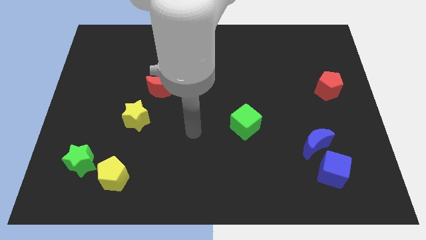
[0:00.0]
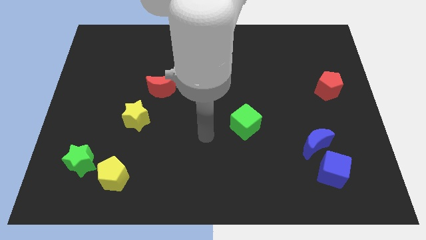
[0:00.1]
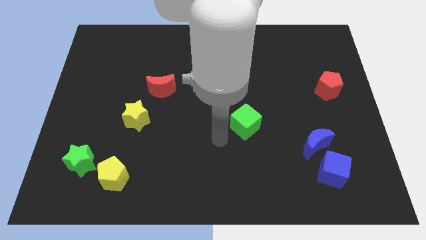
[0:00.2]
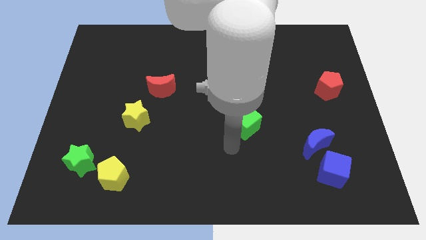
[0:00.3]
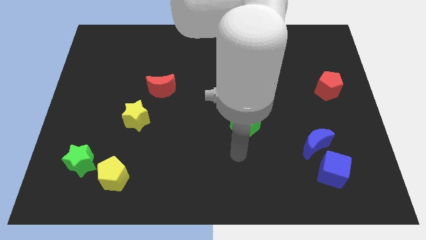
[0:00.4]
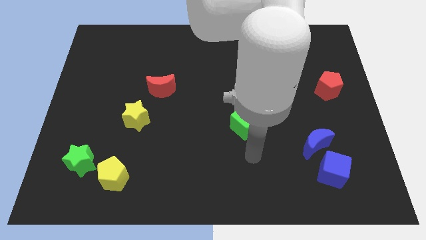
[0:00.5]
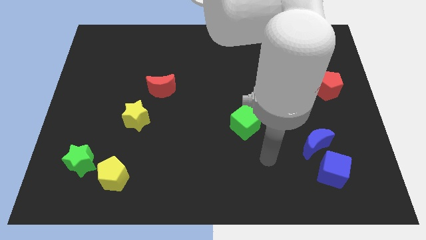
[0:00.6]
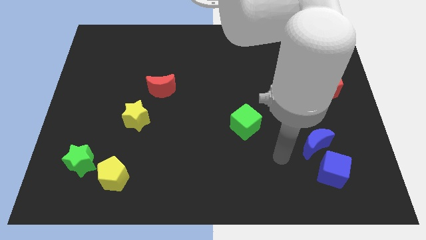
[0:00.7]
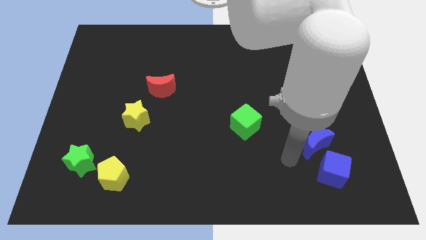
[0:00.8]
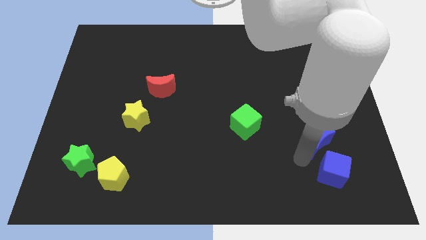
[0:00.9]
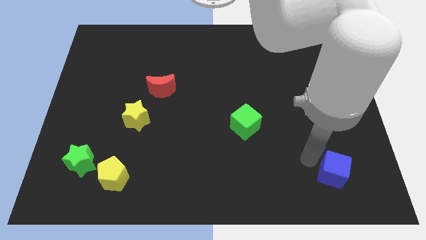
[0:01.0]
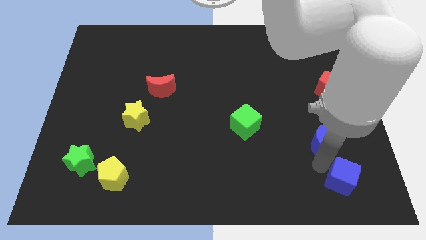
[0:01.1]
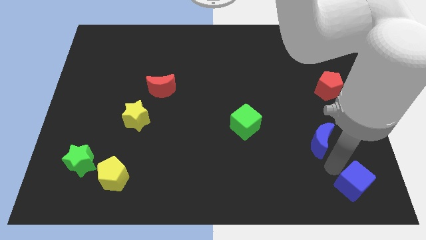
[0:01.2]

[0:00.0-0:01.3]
move the blue moon away from the blue cube

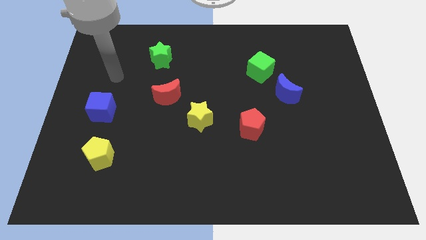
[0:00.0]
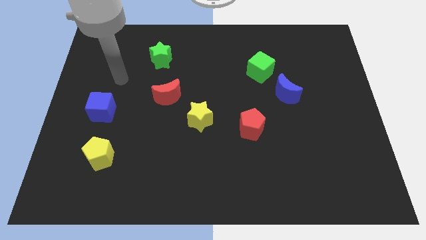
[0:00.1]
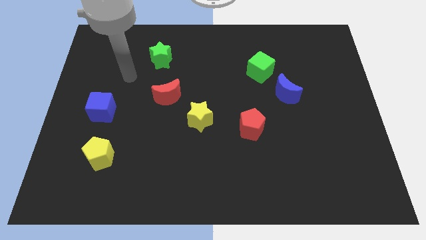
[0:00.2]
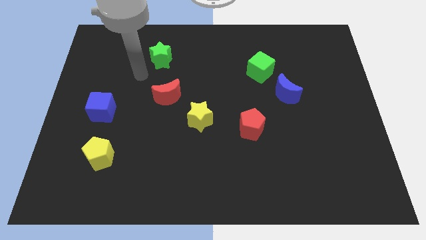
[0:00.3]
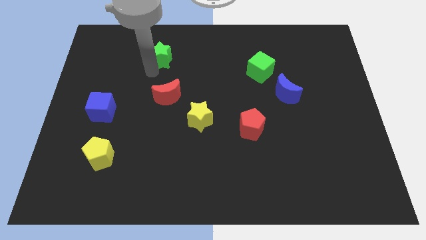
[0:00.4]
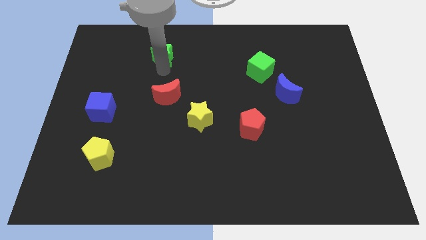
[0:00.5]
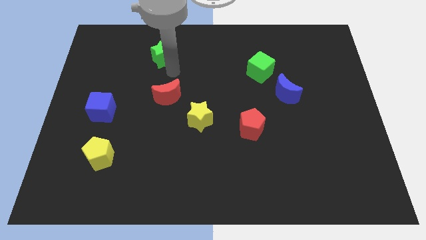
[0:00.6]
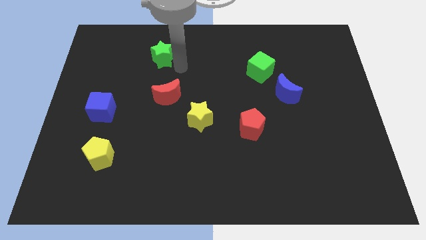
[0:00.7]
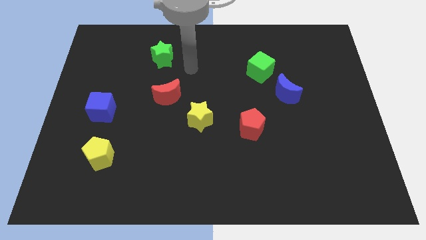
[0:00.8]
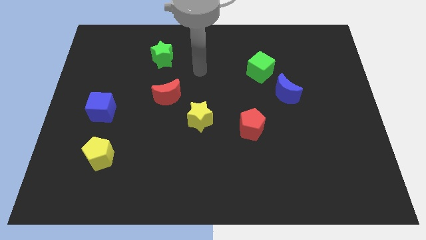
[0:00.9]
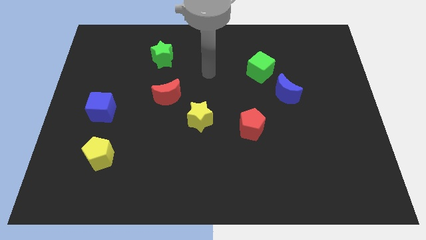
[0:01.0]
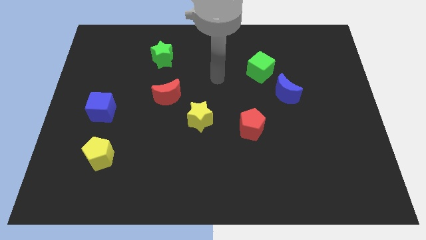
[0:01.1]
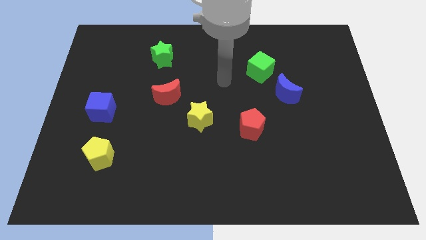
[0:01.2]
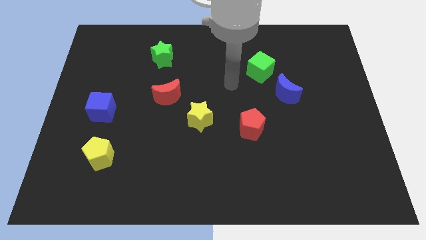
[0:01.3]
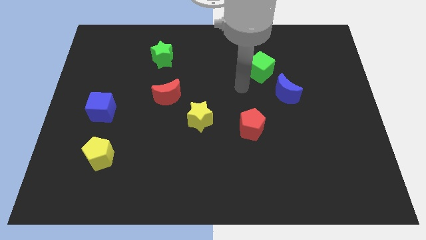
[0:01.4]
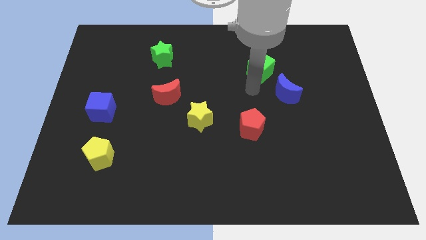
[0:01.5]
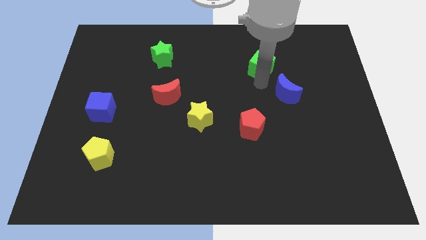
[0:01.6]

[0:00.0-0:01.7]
pull the blue moon apart from the green cube

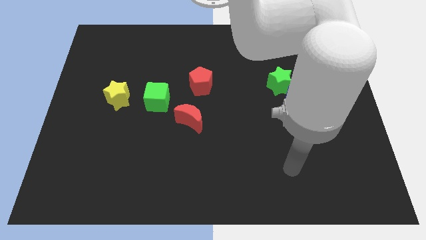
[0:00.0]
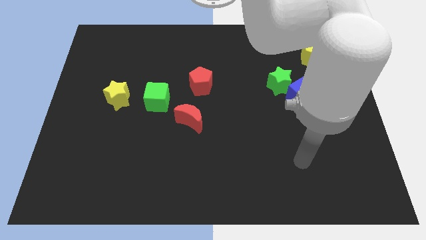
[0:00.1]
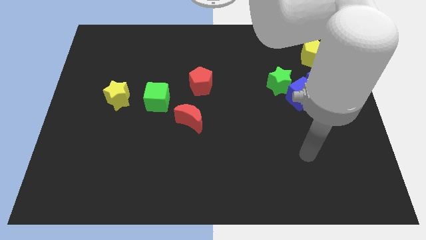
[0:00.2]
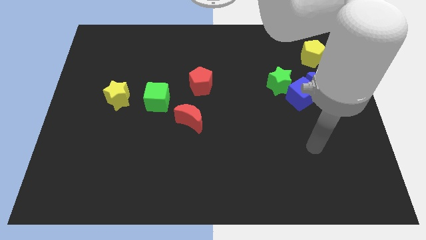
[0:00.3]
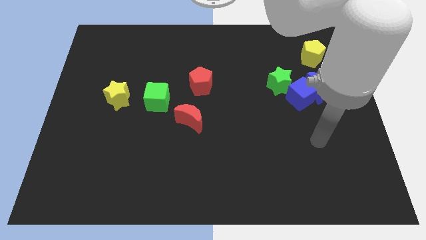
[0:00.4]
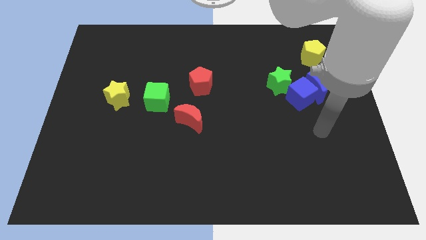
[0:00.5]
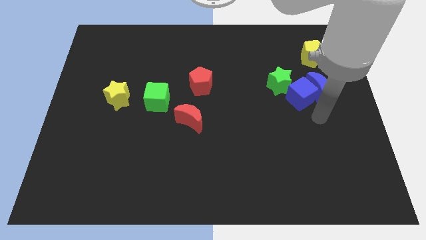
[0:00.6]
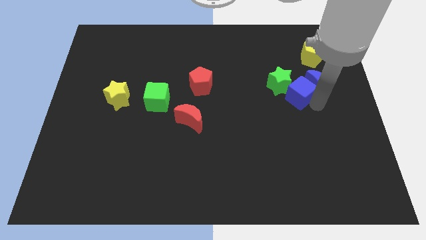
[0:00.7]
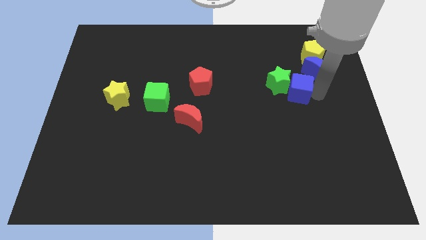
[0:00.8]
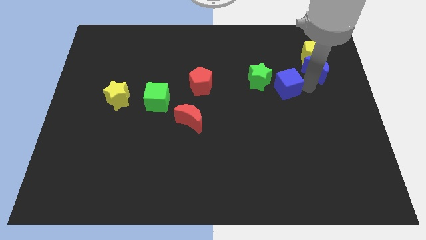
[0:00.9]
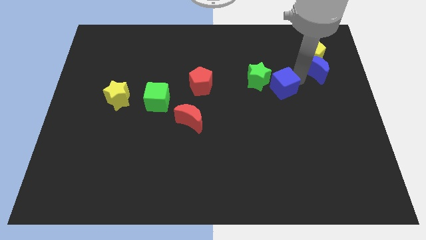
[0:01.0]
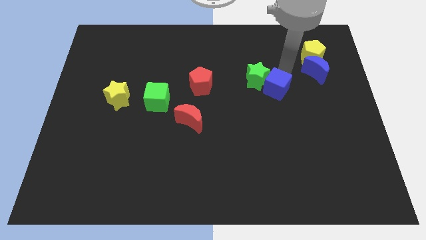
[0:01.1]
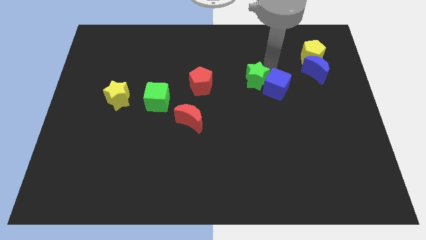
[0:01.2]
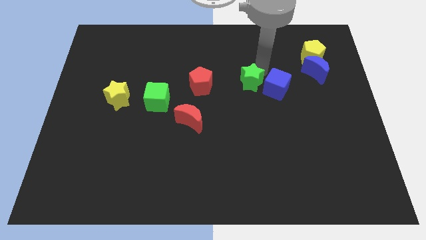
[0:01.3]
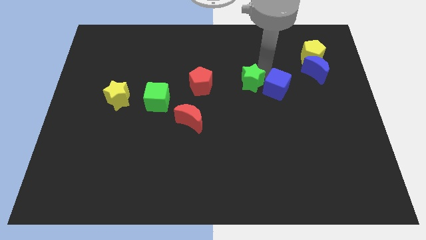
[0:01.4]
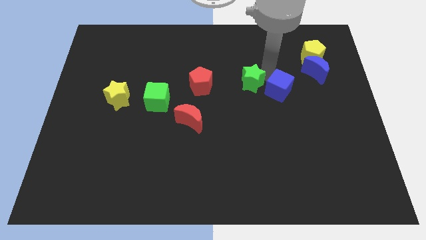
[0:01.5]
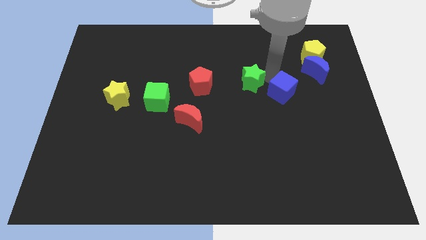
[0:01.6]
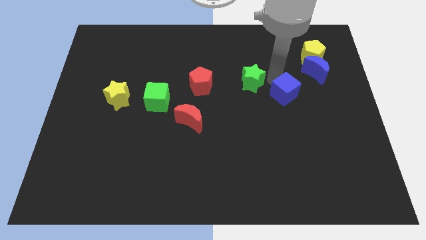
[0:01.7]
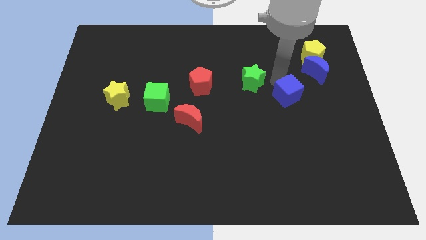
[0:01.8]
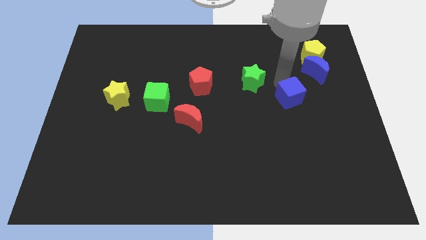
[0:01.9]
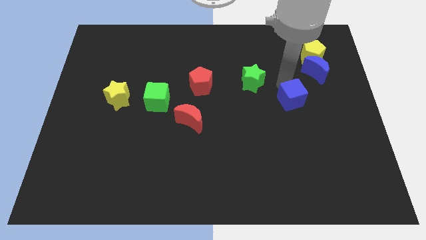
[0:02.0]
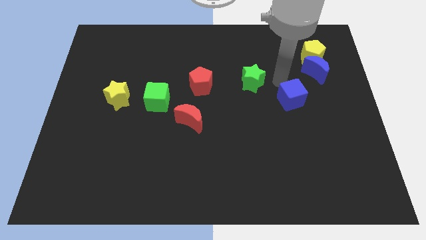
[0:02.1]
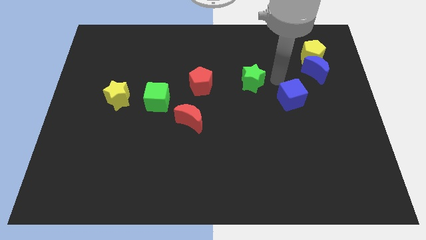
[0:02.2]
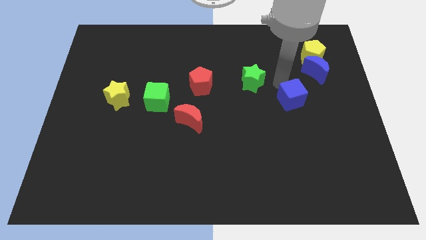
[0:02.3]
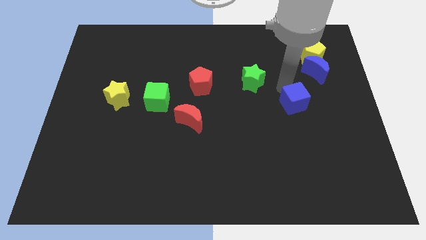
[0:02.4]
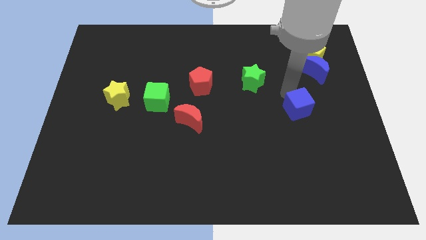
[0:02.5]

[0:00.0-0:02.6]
pull the blue cube apart from the blue moon and green star

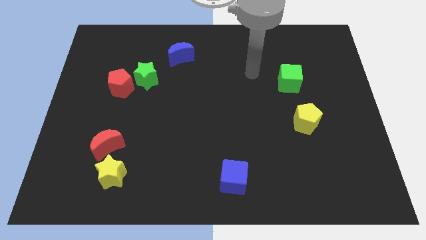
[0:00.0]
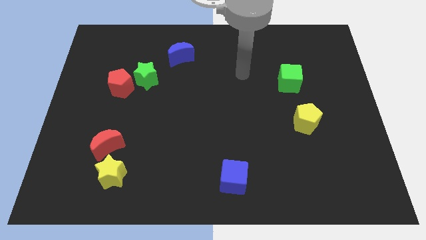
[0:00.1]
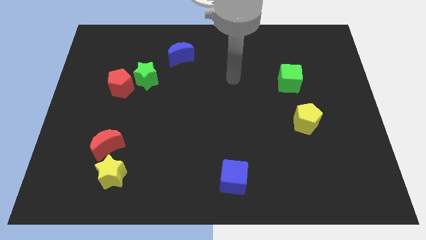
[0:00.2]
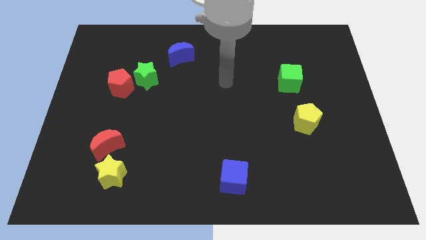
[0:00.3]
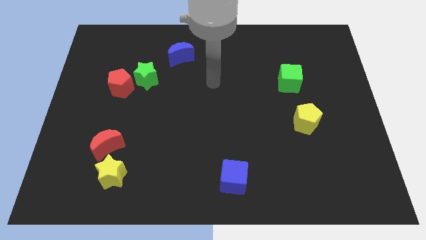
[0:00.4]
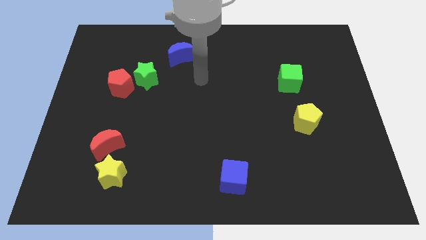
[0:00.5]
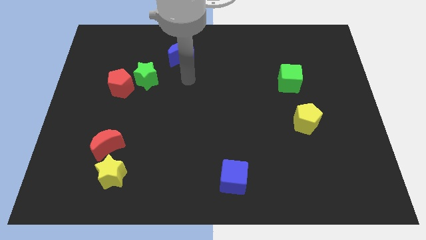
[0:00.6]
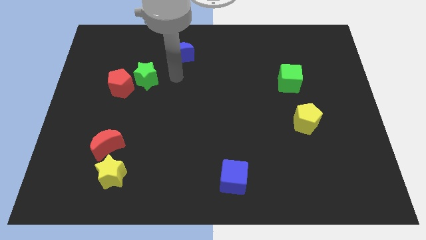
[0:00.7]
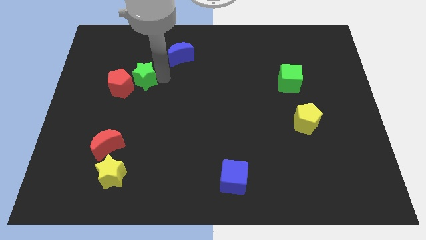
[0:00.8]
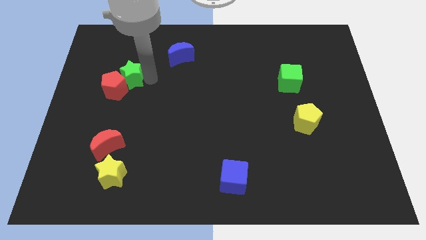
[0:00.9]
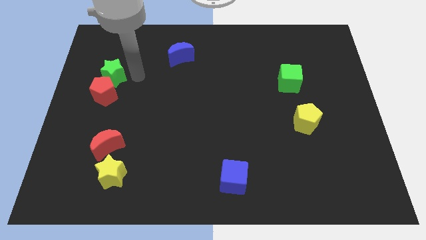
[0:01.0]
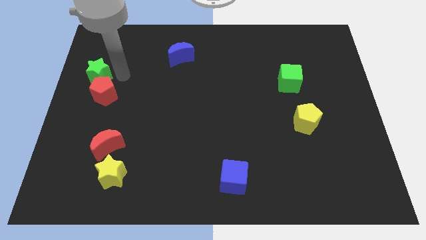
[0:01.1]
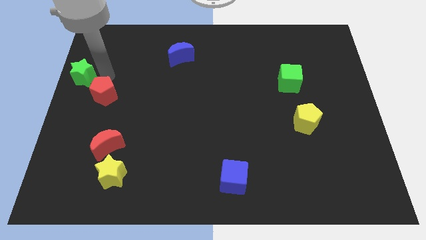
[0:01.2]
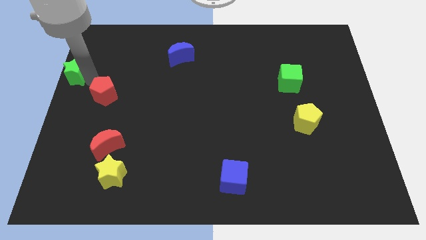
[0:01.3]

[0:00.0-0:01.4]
pull the red pentagon apart from the green star

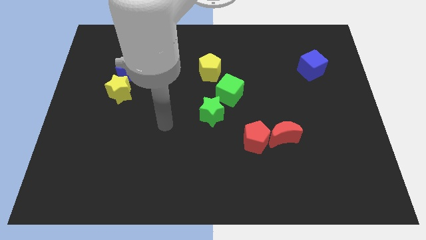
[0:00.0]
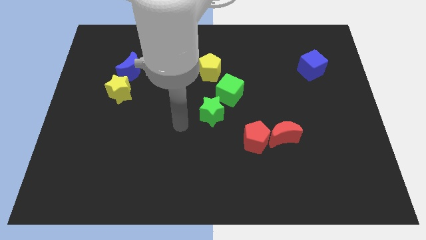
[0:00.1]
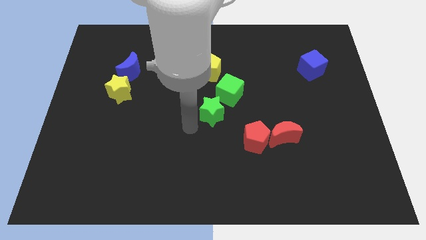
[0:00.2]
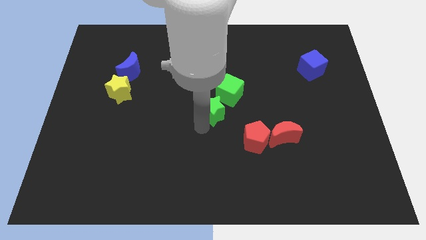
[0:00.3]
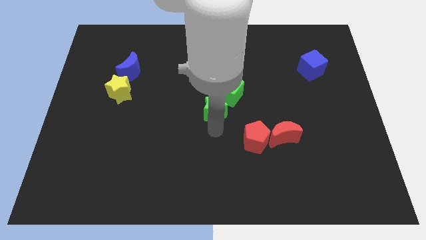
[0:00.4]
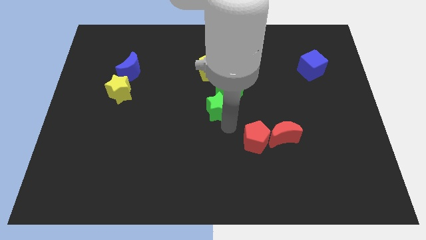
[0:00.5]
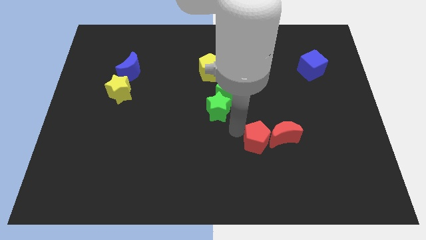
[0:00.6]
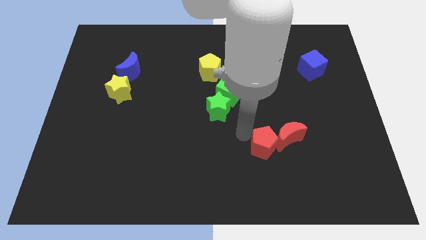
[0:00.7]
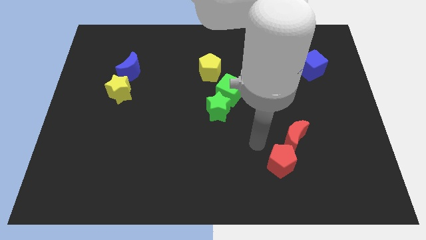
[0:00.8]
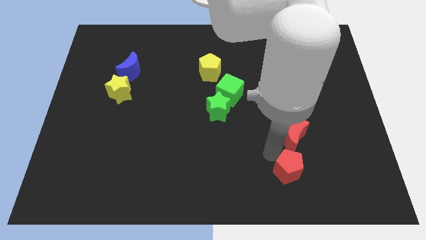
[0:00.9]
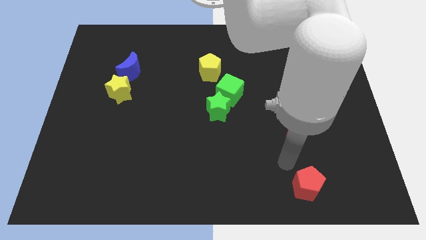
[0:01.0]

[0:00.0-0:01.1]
separate the red moon from the red pentagon

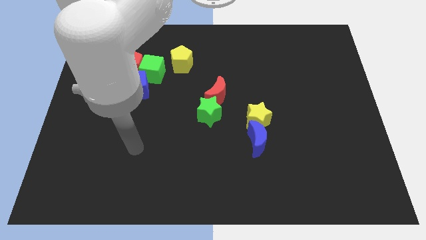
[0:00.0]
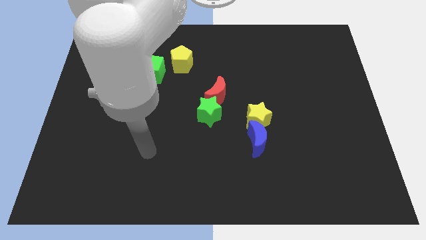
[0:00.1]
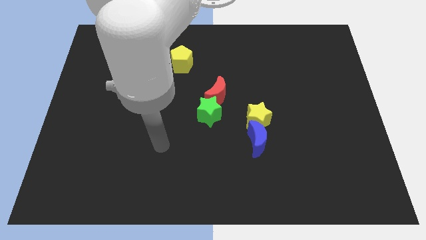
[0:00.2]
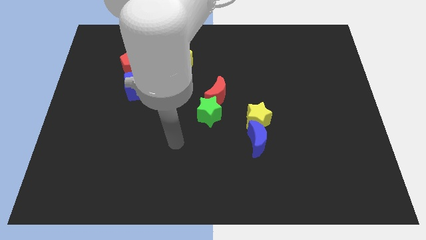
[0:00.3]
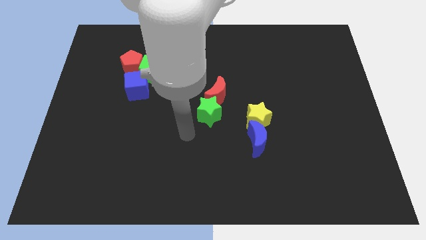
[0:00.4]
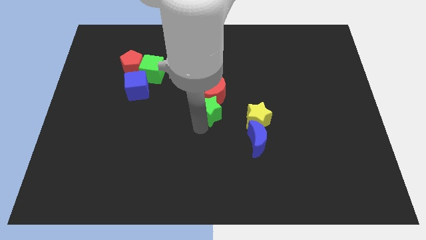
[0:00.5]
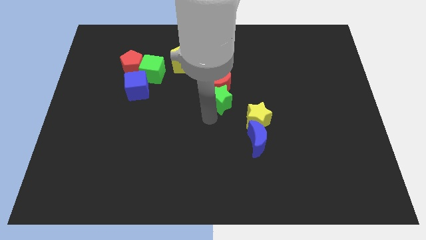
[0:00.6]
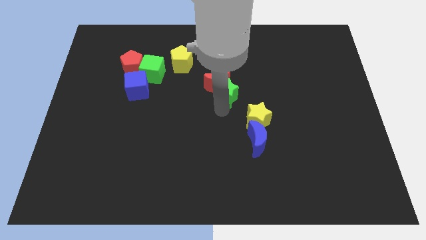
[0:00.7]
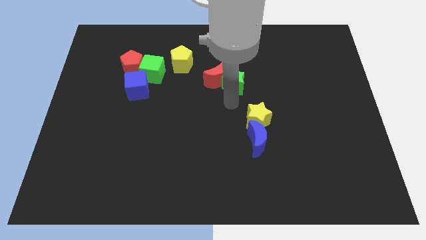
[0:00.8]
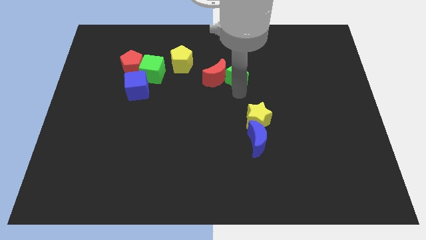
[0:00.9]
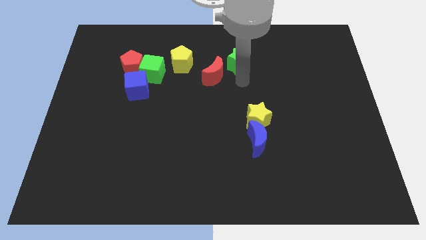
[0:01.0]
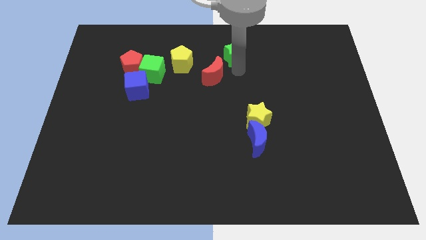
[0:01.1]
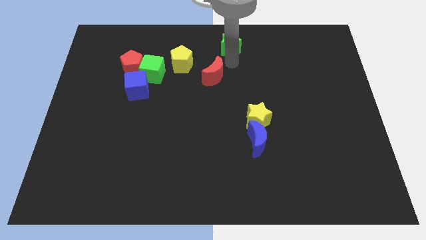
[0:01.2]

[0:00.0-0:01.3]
move the red moon away from the green star

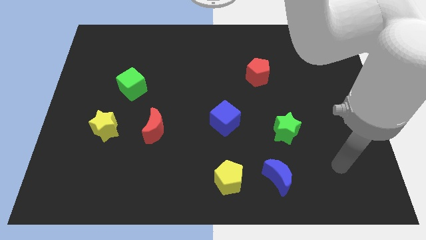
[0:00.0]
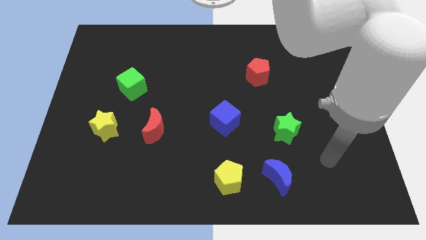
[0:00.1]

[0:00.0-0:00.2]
separate the blue moon from the yellow pentagon
